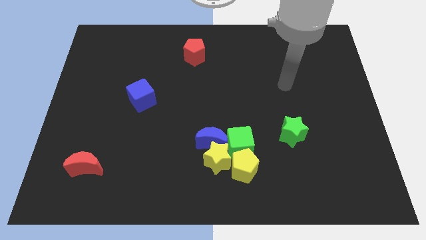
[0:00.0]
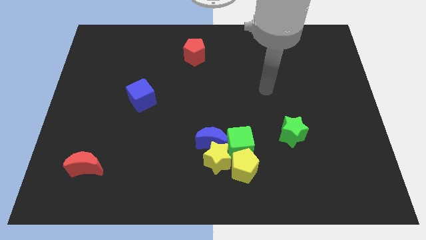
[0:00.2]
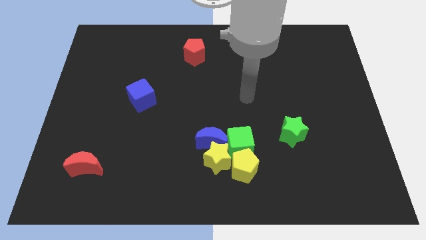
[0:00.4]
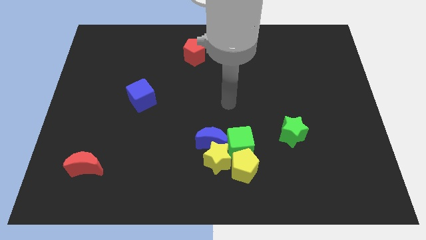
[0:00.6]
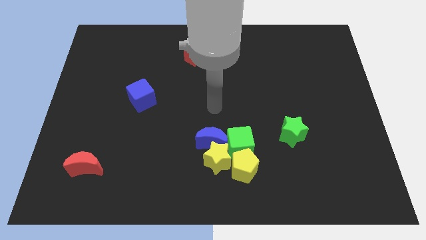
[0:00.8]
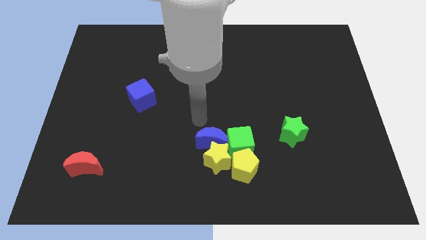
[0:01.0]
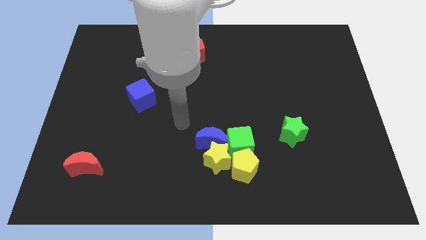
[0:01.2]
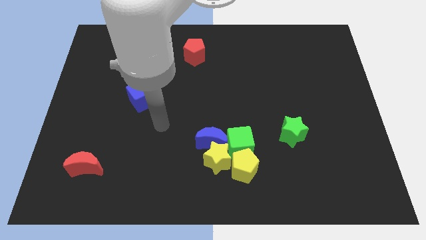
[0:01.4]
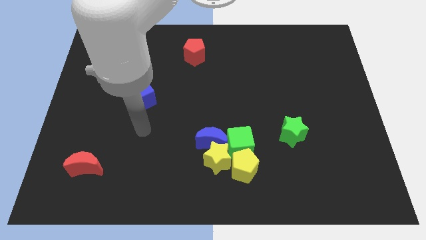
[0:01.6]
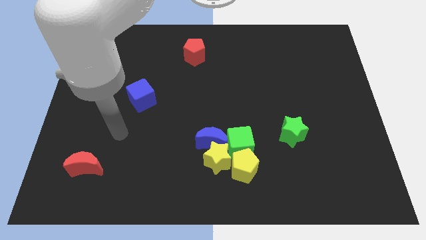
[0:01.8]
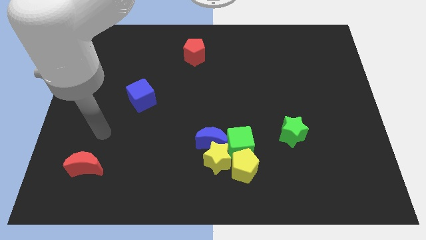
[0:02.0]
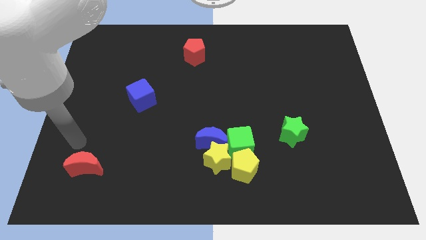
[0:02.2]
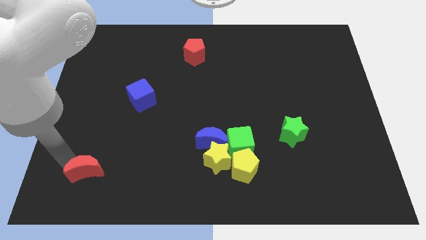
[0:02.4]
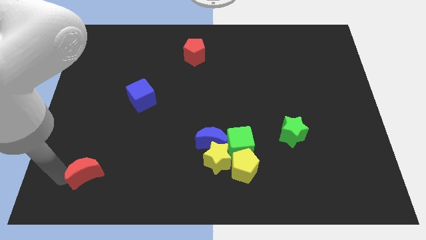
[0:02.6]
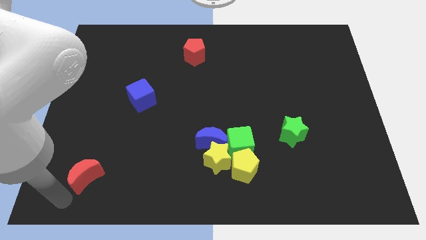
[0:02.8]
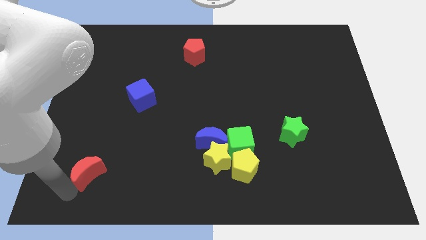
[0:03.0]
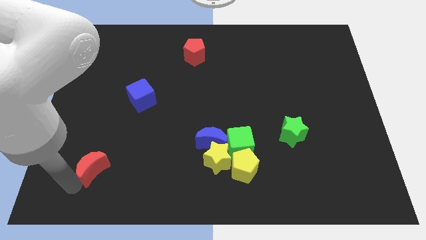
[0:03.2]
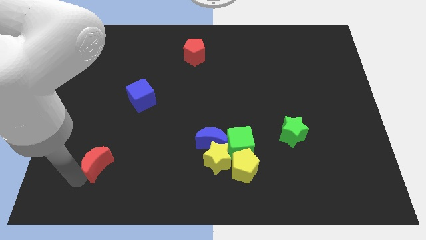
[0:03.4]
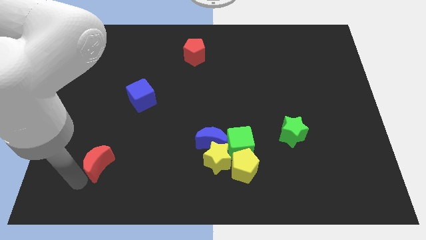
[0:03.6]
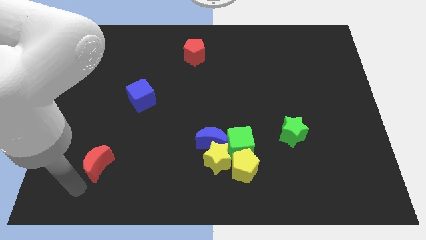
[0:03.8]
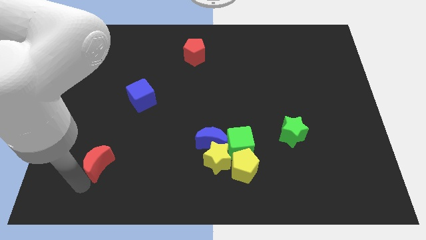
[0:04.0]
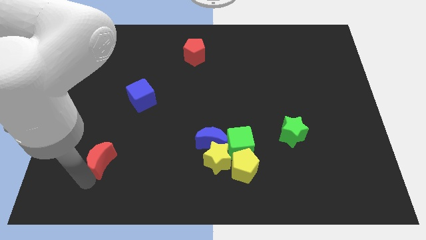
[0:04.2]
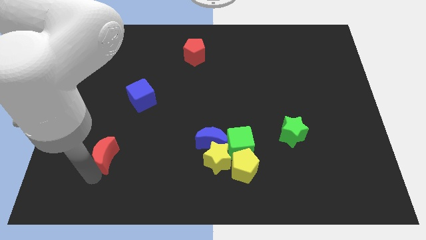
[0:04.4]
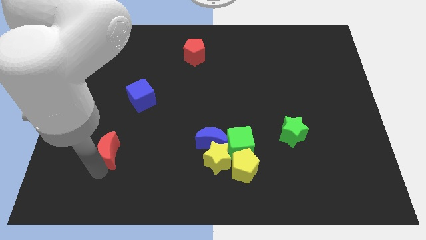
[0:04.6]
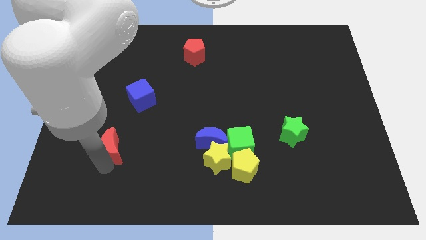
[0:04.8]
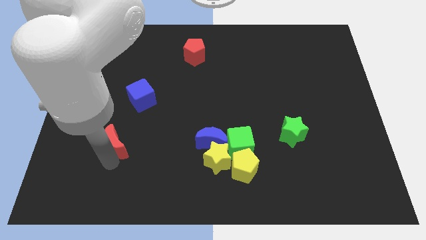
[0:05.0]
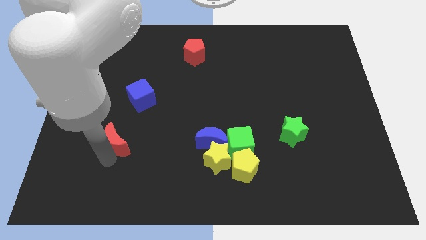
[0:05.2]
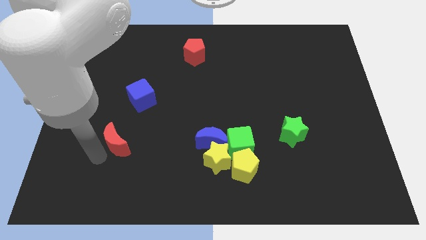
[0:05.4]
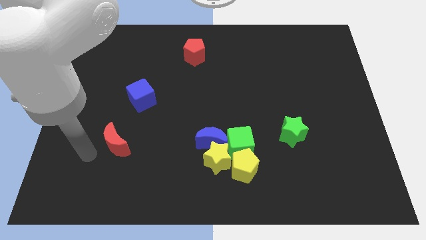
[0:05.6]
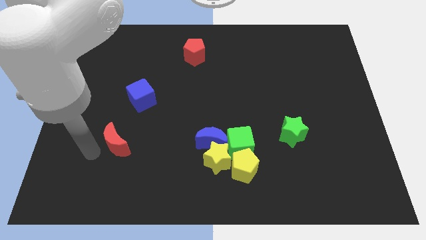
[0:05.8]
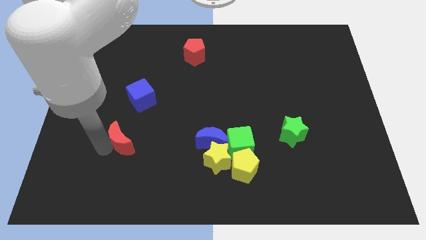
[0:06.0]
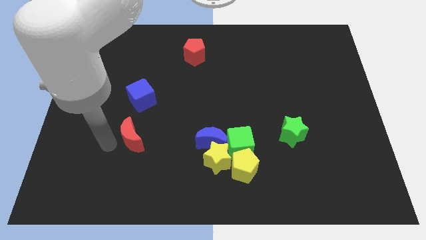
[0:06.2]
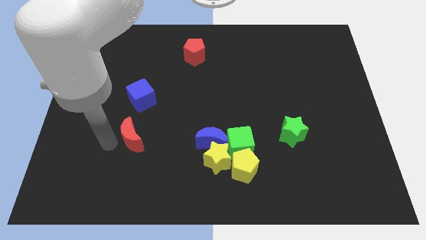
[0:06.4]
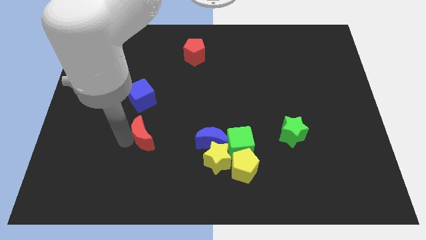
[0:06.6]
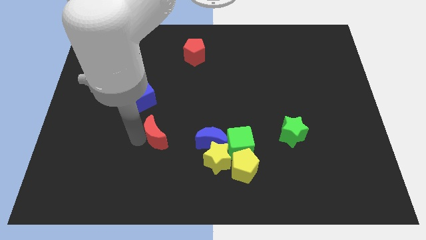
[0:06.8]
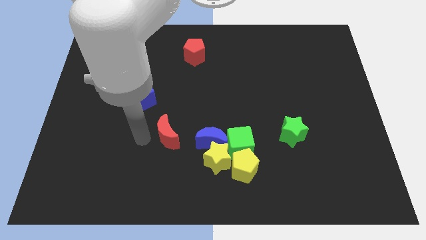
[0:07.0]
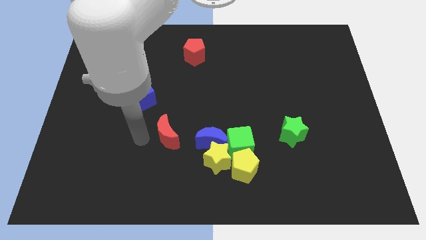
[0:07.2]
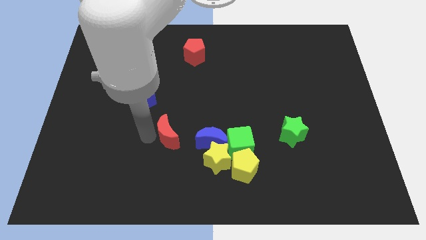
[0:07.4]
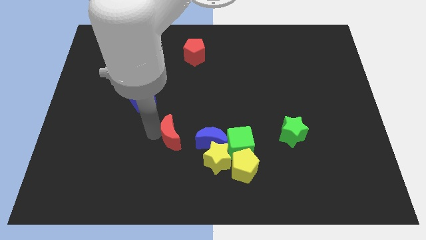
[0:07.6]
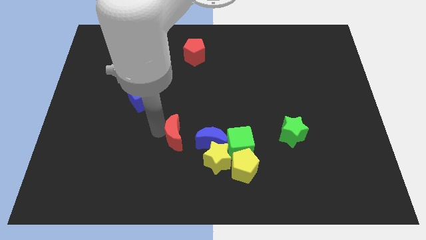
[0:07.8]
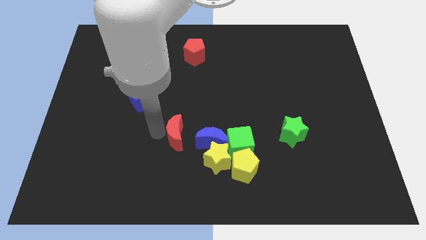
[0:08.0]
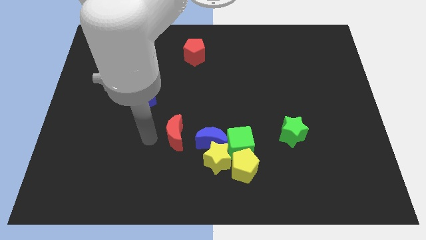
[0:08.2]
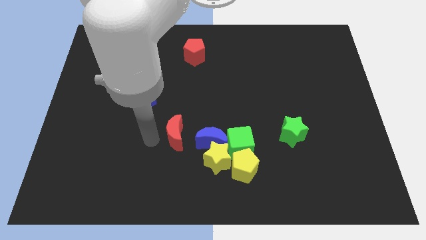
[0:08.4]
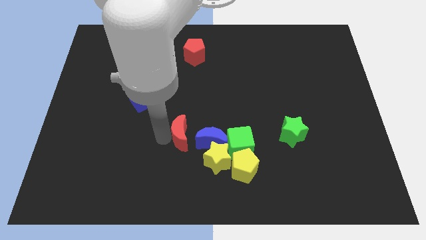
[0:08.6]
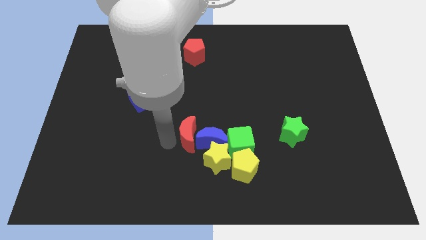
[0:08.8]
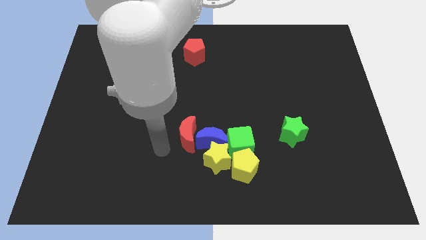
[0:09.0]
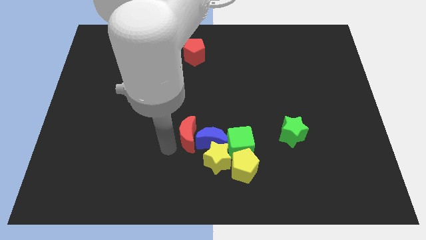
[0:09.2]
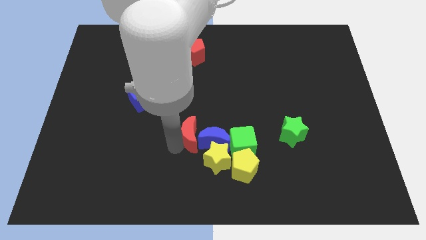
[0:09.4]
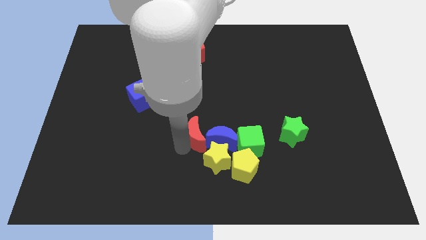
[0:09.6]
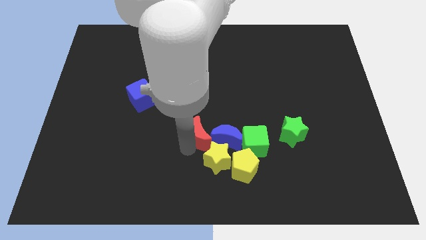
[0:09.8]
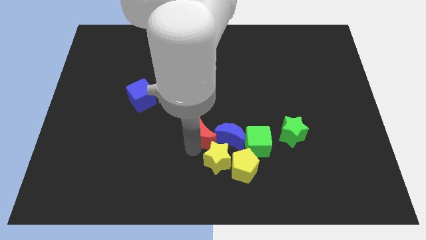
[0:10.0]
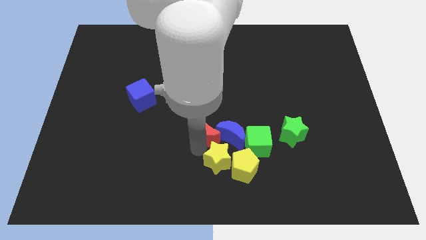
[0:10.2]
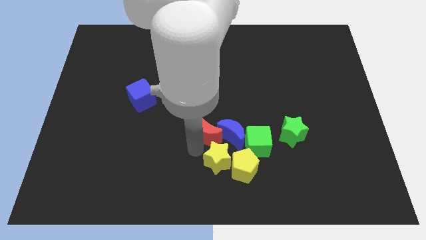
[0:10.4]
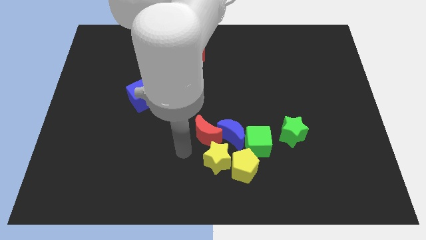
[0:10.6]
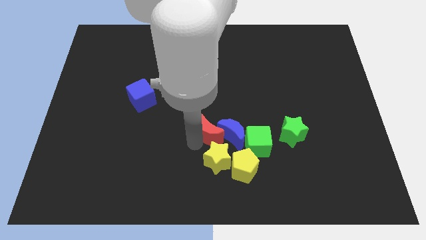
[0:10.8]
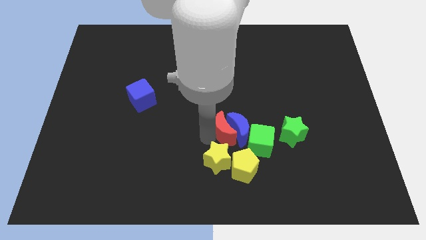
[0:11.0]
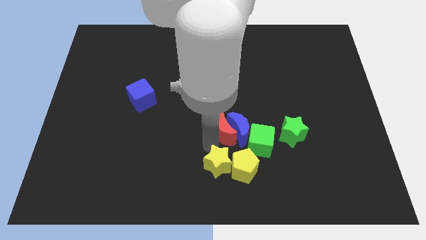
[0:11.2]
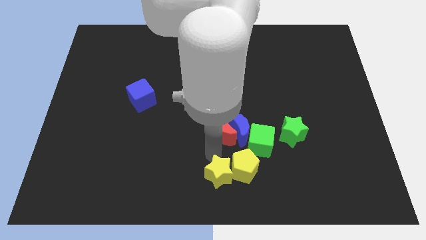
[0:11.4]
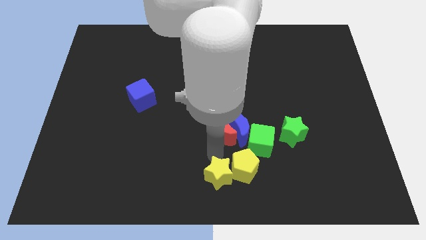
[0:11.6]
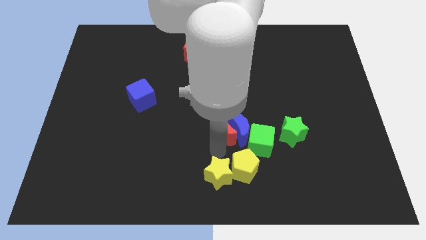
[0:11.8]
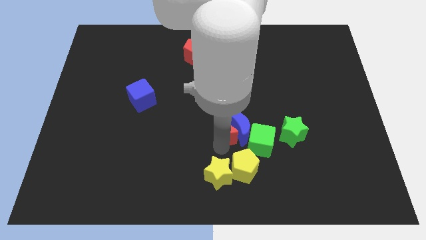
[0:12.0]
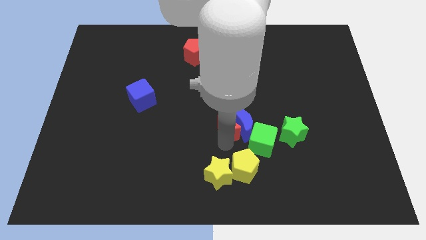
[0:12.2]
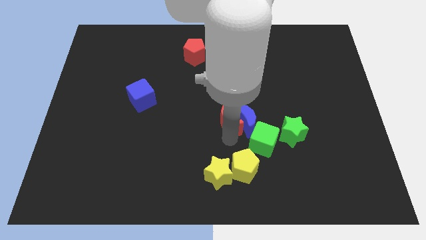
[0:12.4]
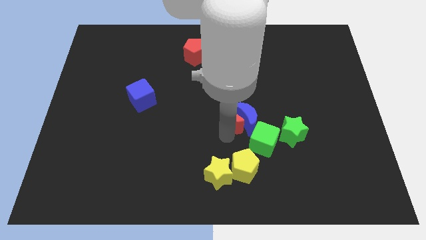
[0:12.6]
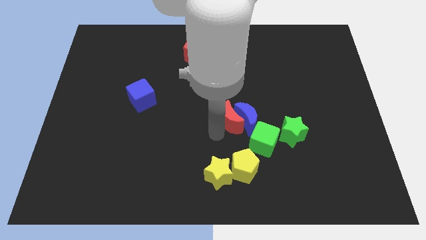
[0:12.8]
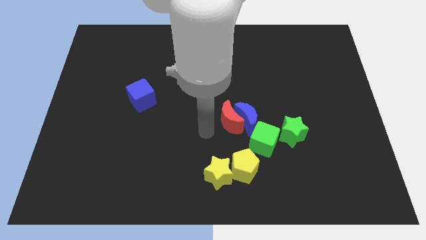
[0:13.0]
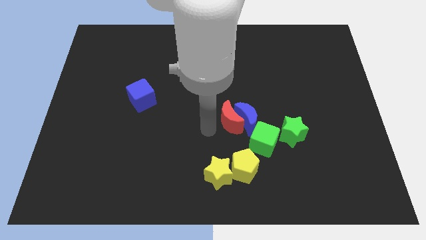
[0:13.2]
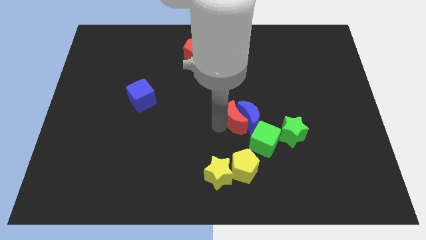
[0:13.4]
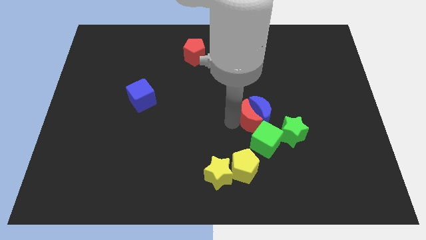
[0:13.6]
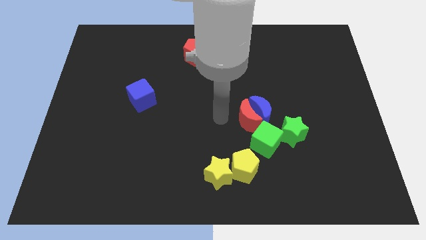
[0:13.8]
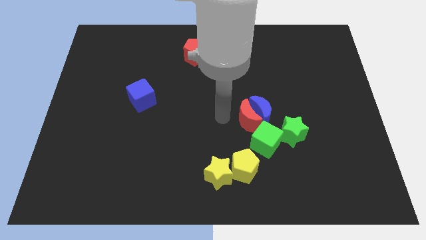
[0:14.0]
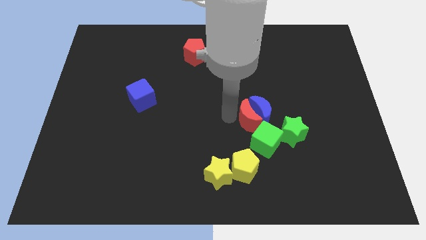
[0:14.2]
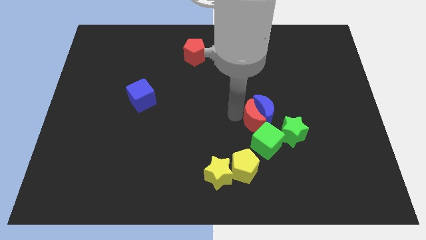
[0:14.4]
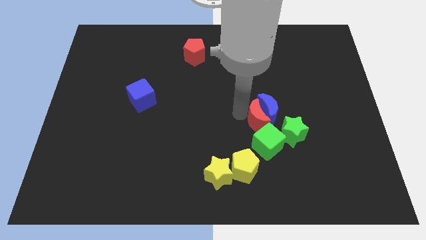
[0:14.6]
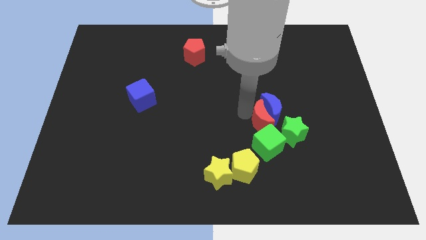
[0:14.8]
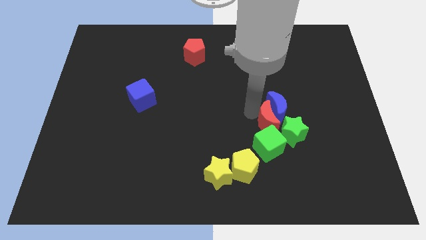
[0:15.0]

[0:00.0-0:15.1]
put the red moon close to the green star
